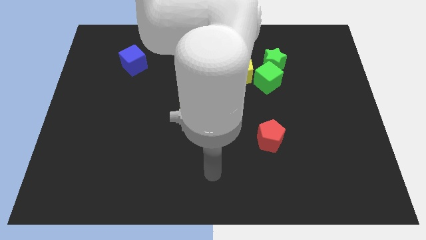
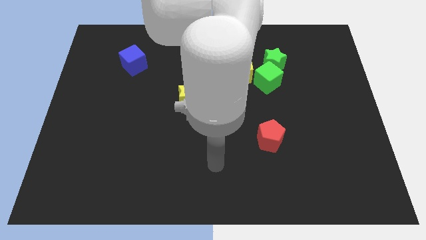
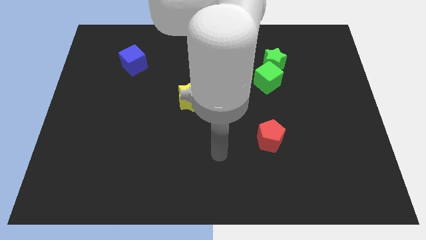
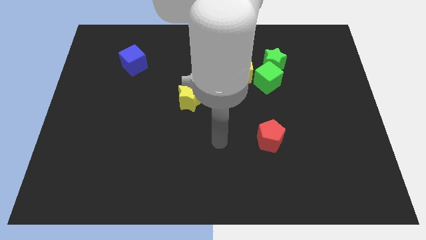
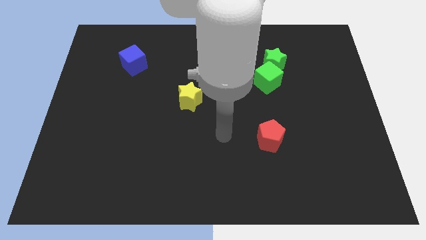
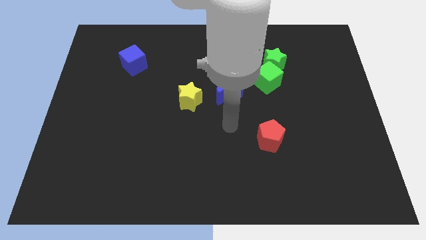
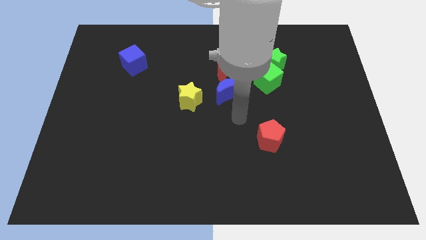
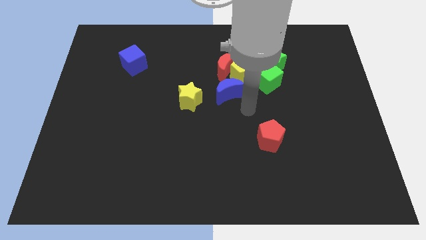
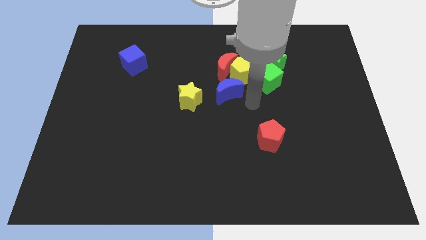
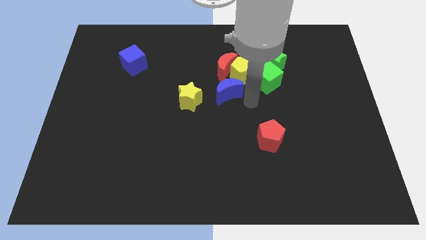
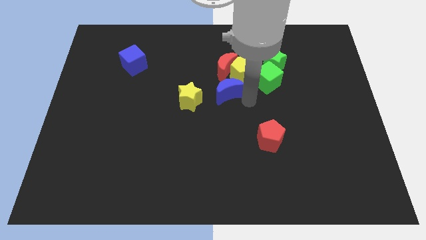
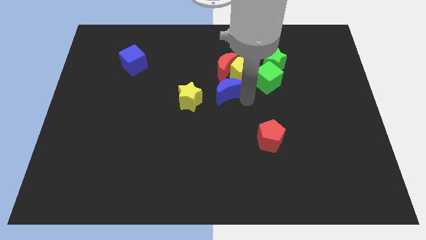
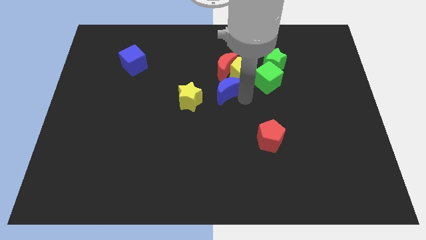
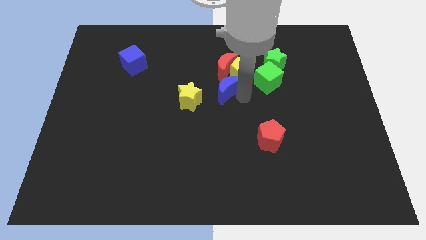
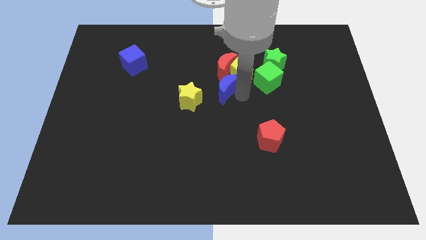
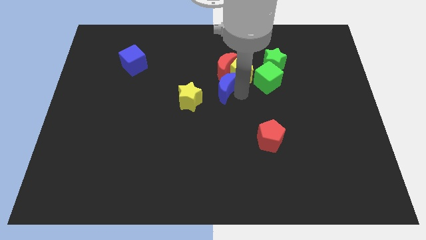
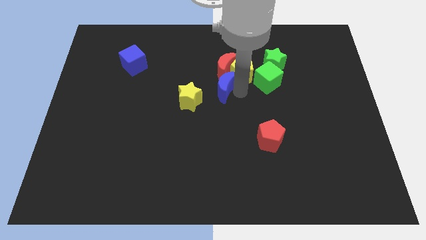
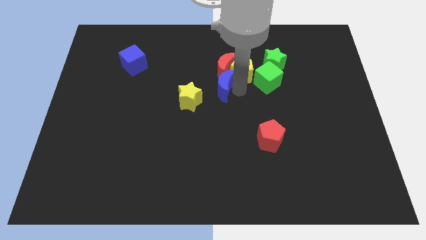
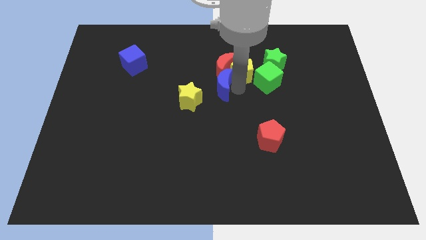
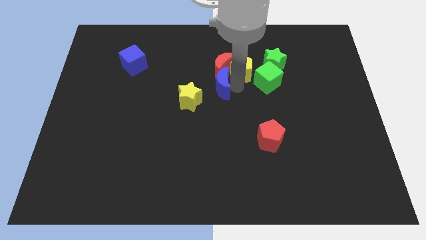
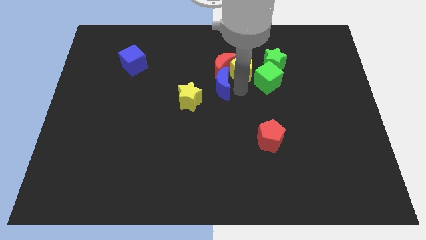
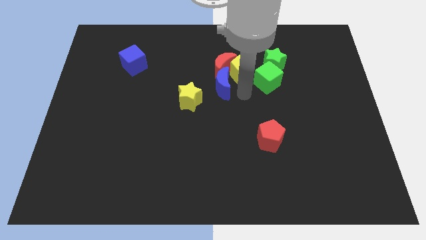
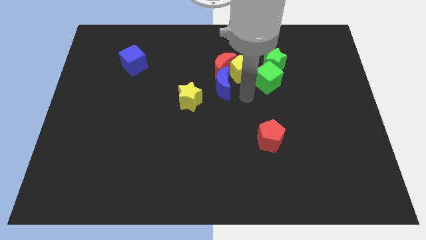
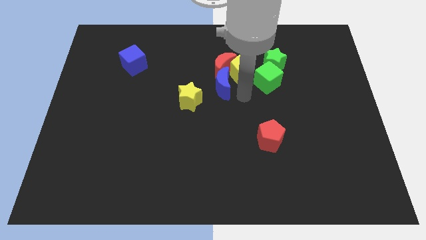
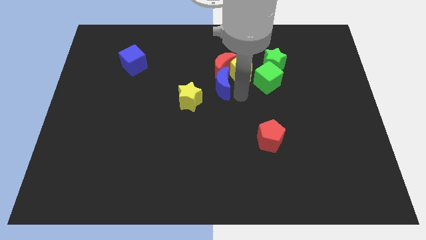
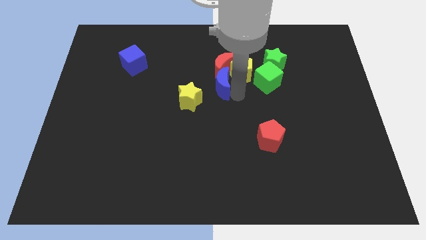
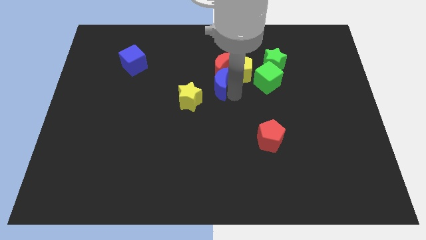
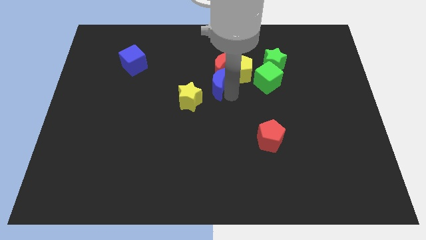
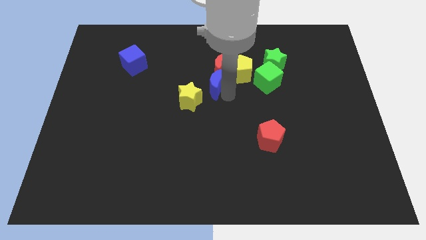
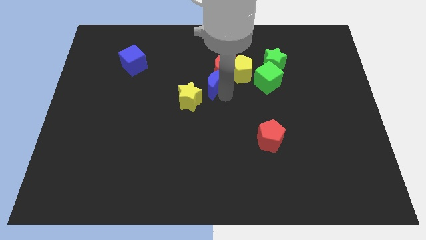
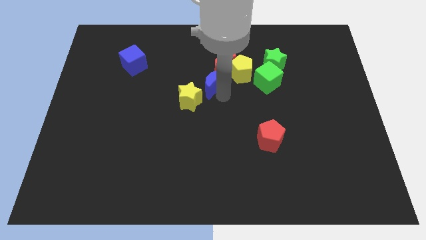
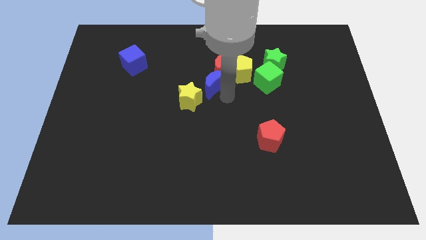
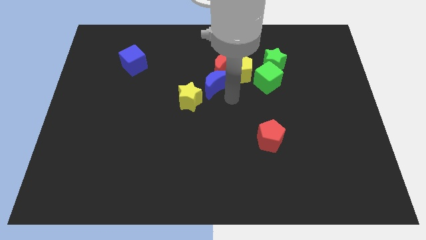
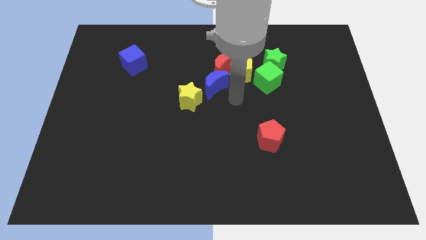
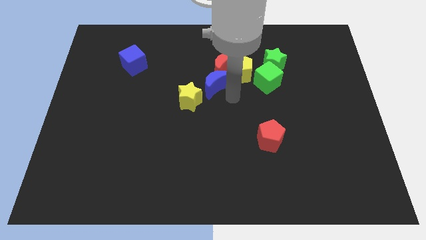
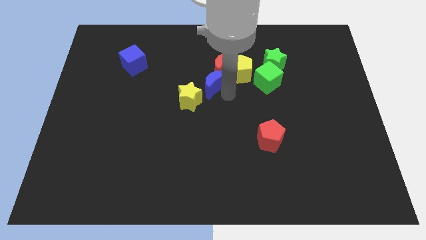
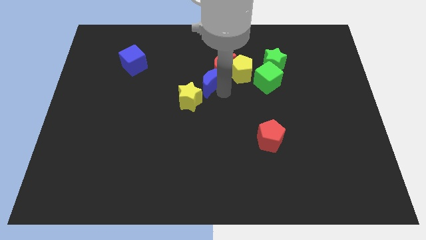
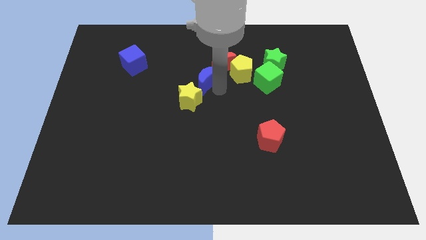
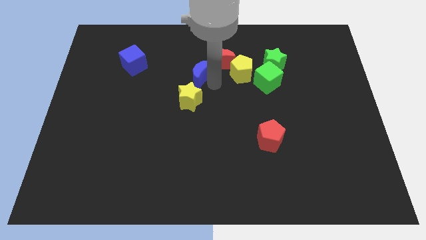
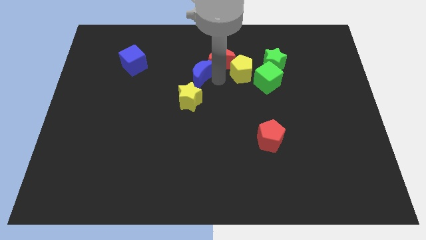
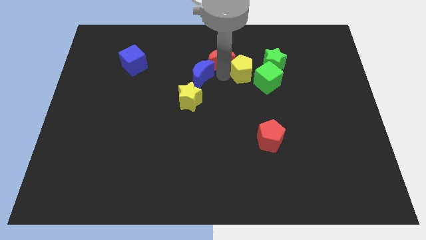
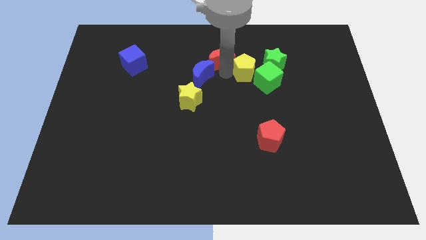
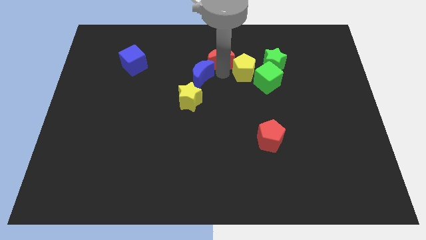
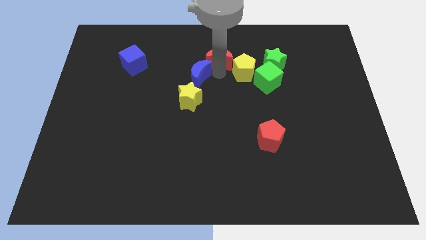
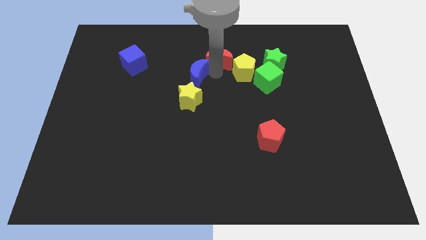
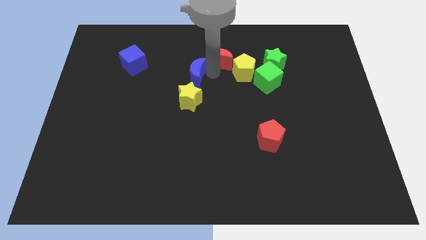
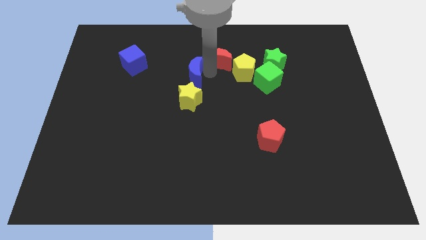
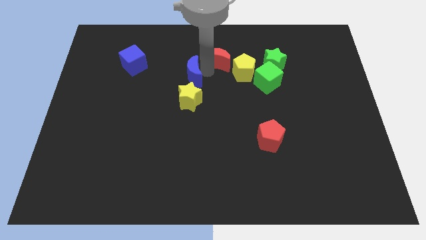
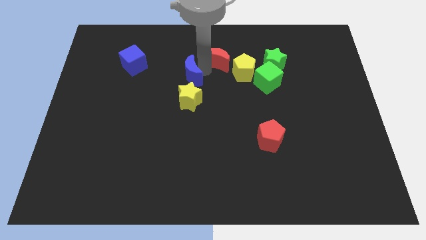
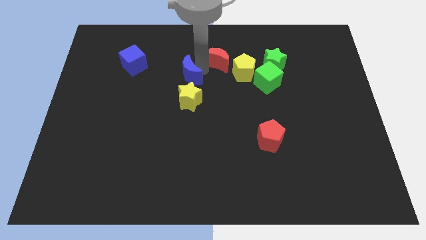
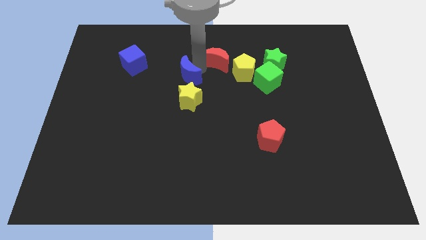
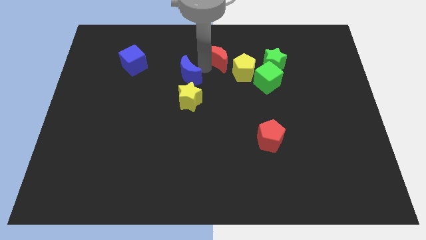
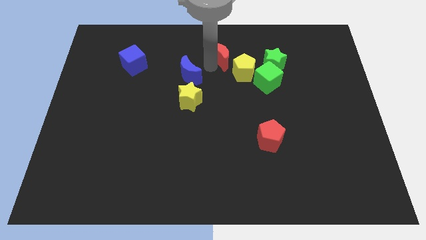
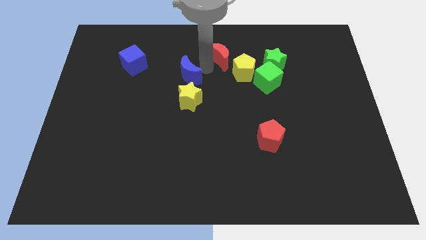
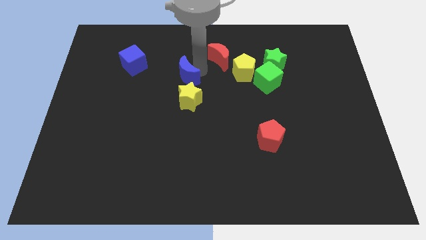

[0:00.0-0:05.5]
slide the blue moon to the top left of the yellow star

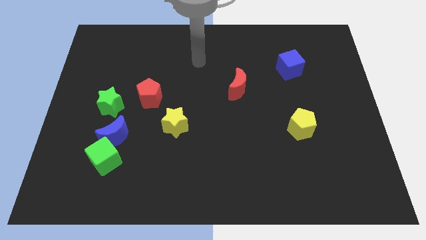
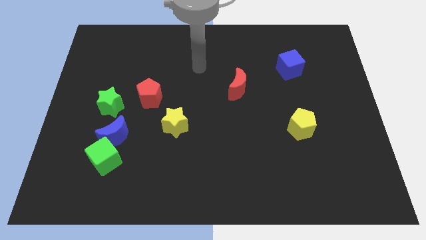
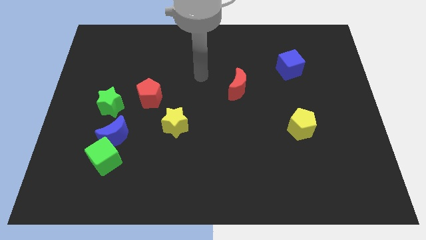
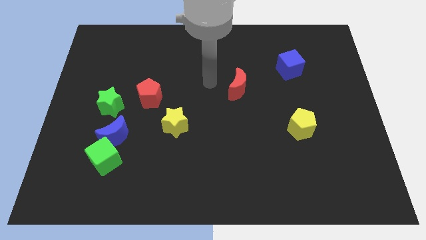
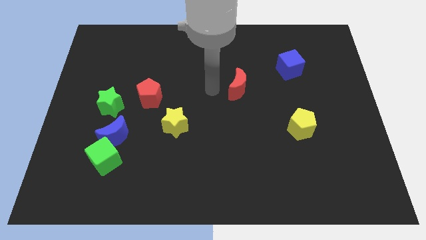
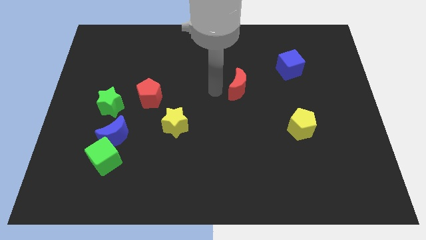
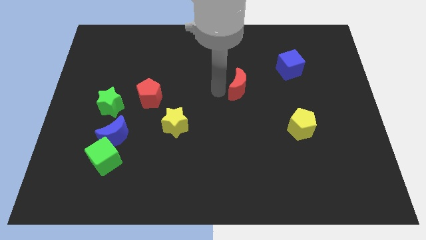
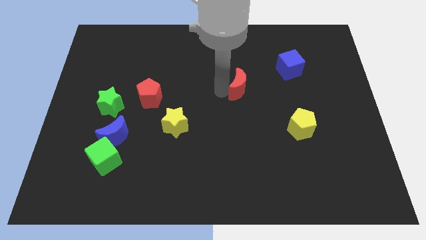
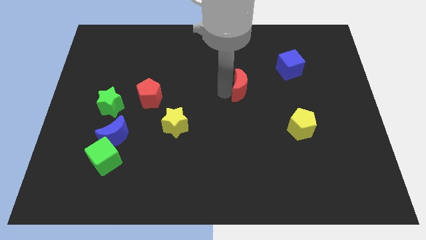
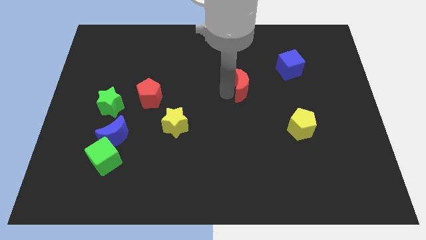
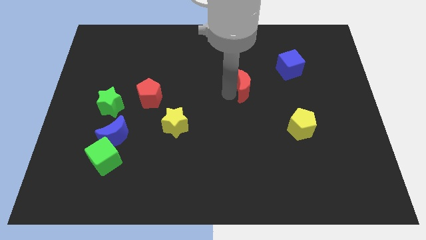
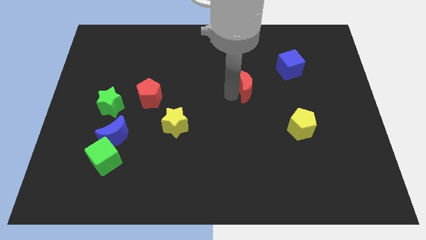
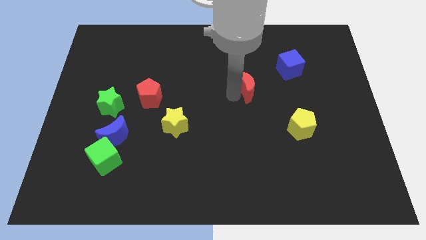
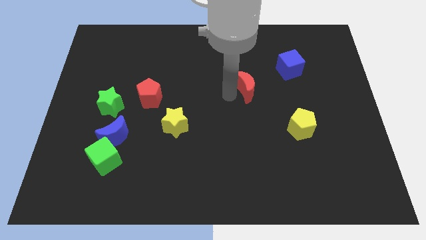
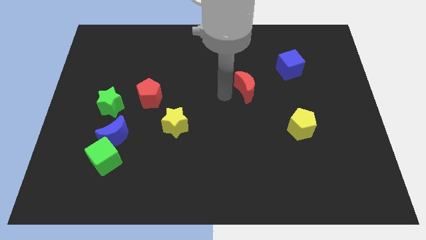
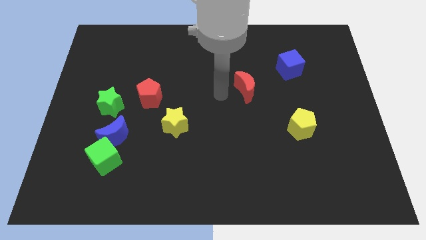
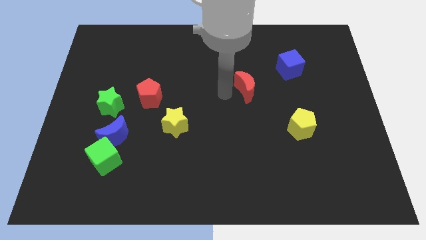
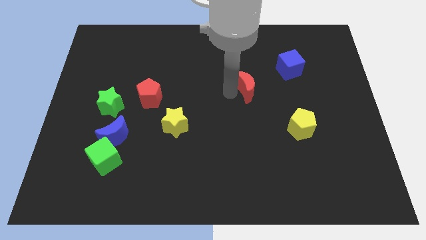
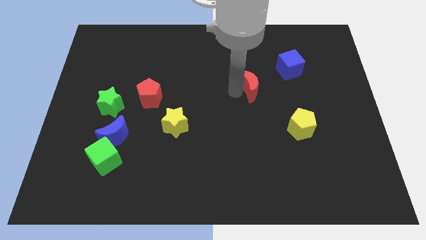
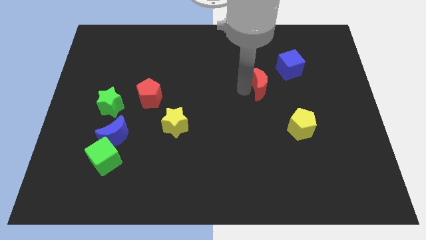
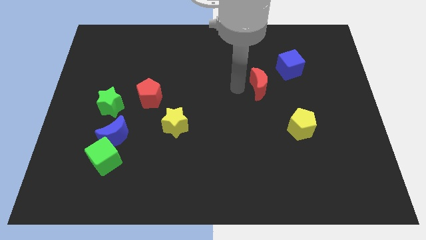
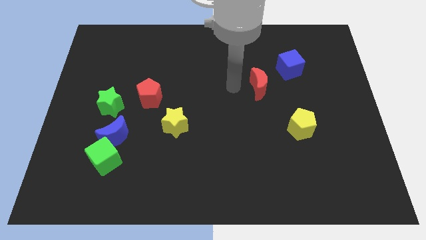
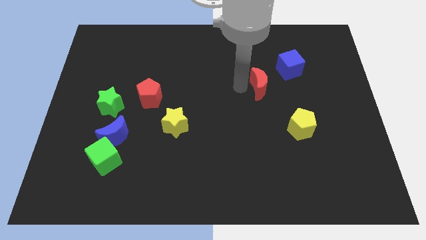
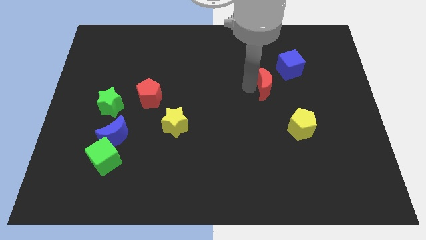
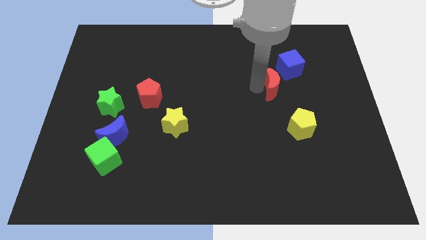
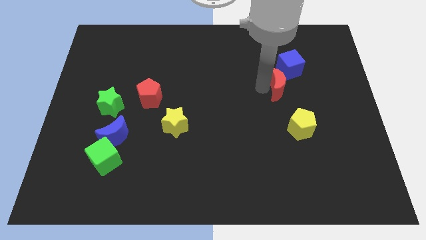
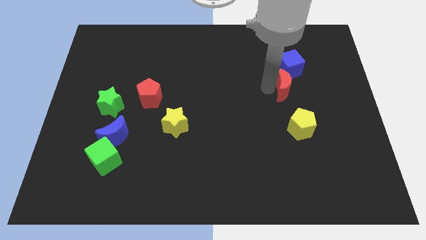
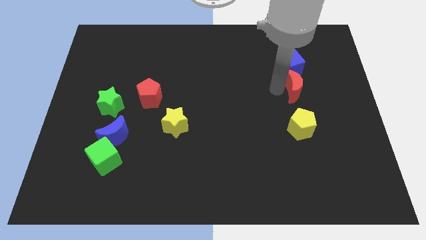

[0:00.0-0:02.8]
move the red moon to the bottom right of the blue cube
